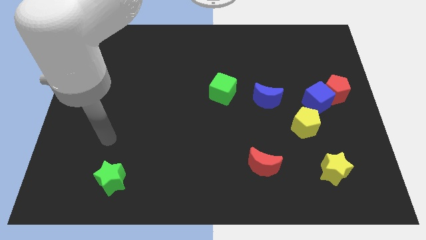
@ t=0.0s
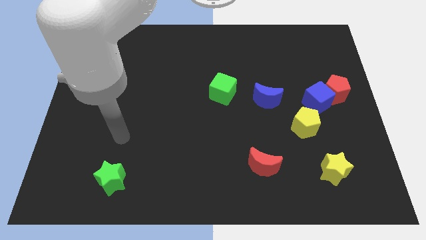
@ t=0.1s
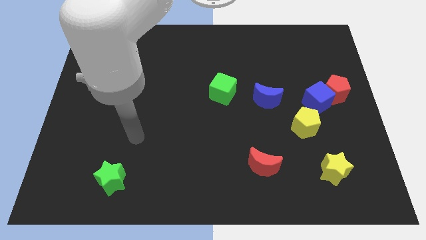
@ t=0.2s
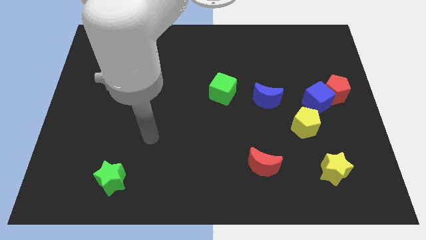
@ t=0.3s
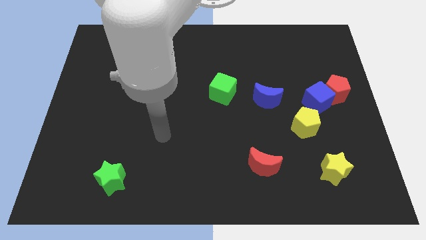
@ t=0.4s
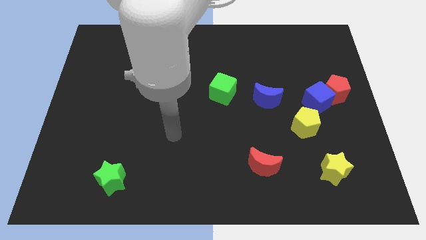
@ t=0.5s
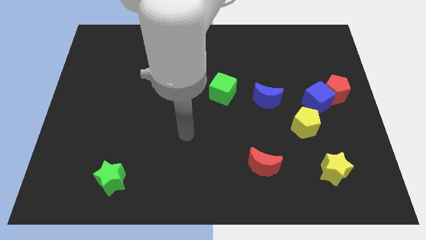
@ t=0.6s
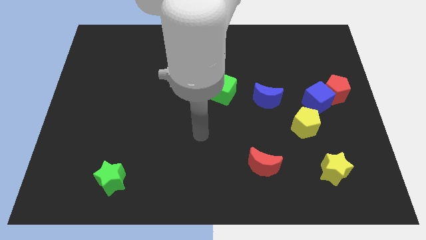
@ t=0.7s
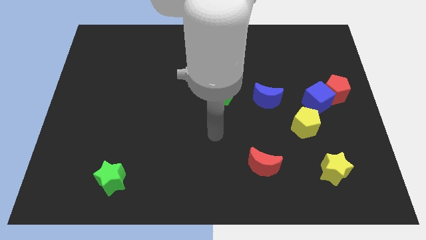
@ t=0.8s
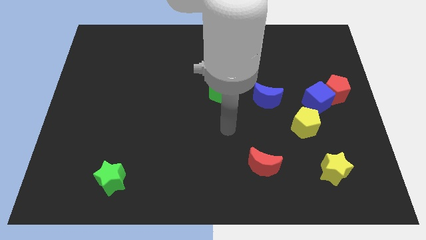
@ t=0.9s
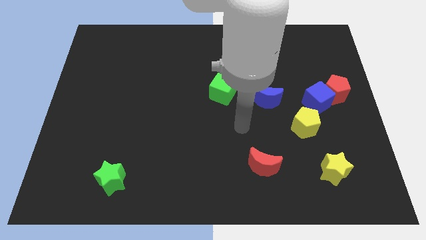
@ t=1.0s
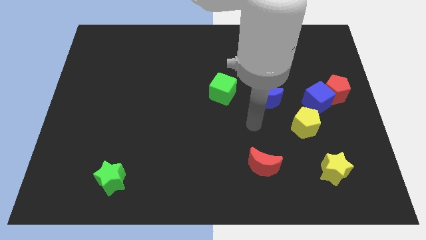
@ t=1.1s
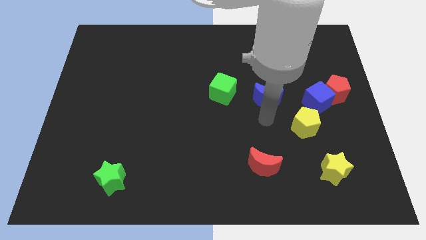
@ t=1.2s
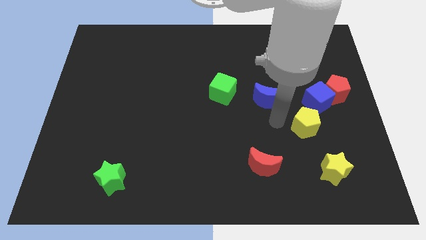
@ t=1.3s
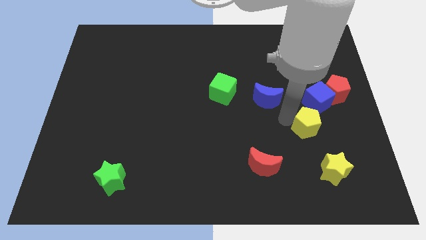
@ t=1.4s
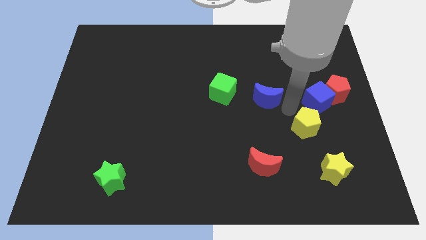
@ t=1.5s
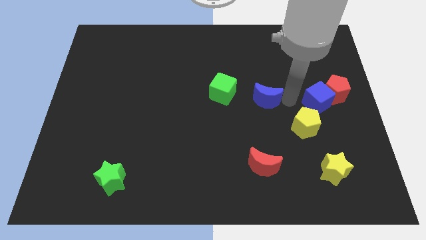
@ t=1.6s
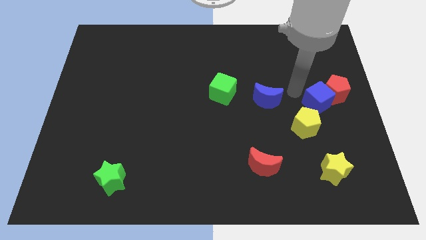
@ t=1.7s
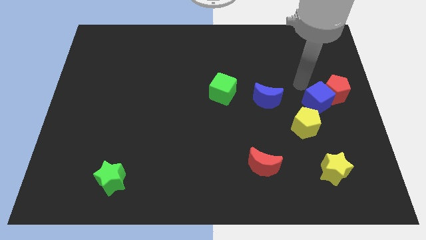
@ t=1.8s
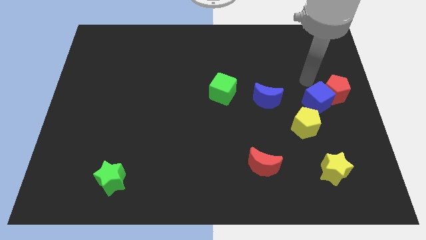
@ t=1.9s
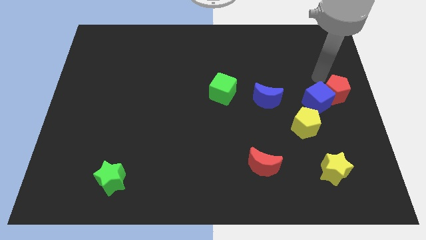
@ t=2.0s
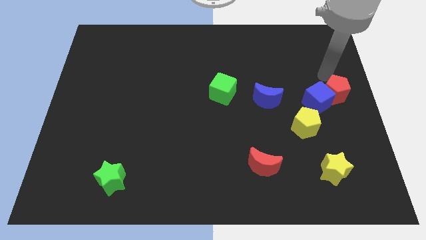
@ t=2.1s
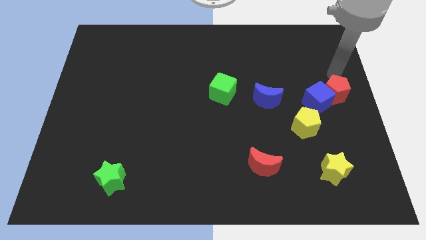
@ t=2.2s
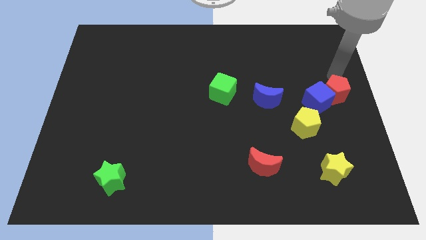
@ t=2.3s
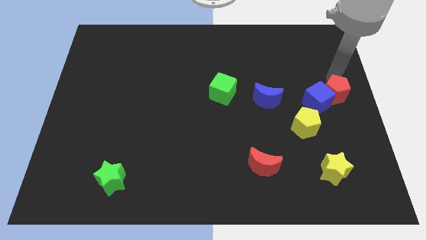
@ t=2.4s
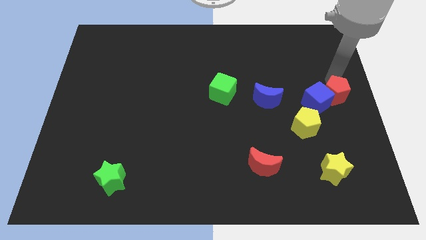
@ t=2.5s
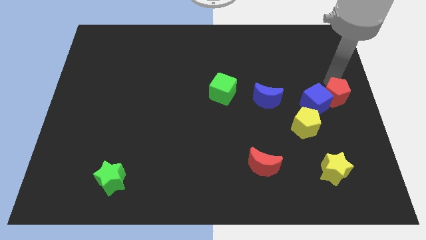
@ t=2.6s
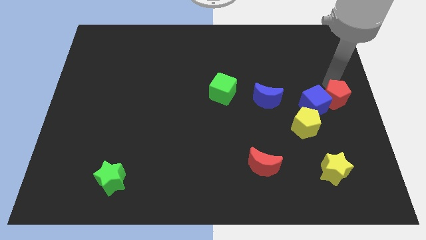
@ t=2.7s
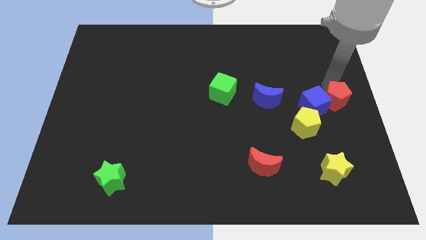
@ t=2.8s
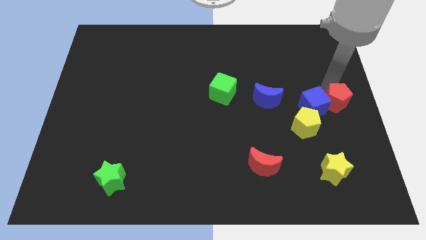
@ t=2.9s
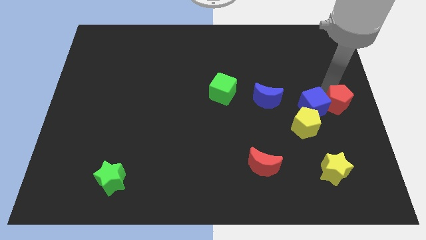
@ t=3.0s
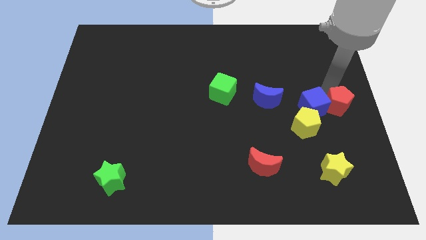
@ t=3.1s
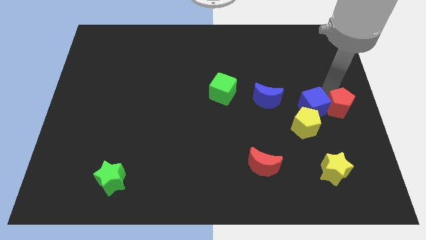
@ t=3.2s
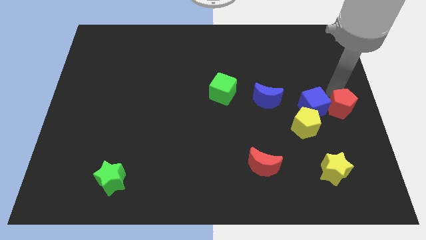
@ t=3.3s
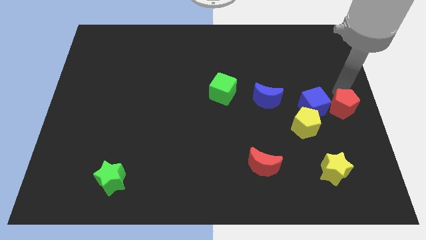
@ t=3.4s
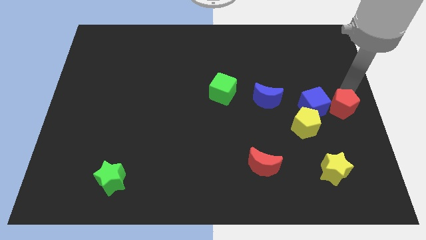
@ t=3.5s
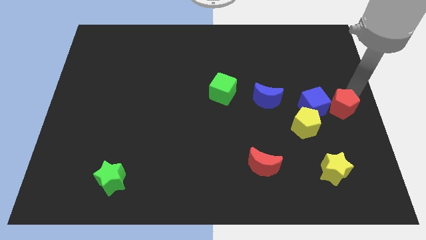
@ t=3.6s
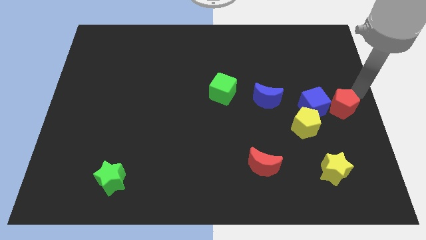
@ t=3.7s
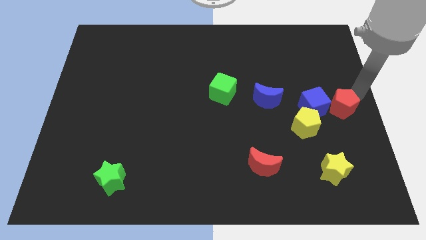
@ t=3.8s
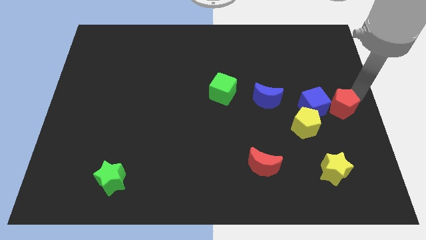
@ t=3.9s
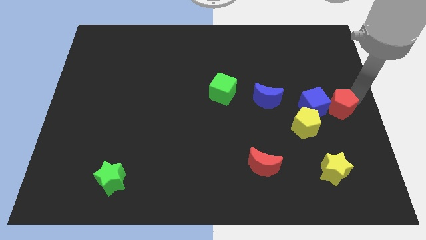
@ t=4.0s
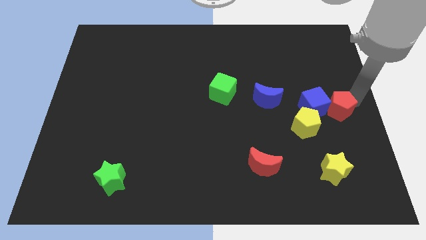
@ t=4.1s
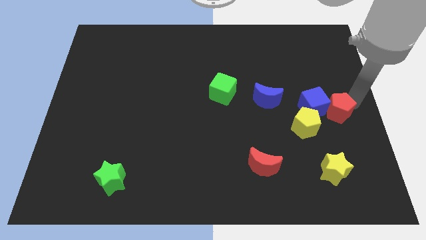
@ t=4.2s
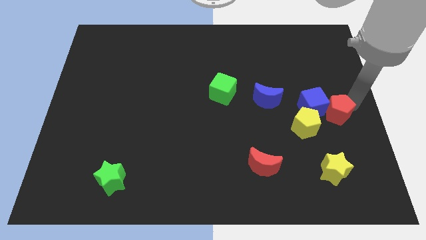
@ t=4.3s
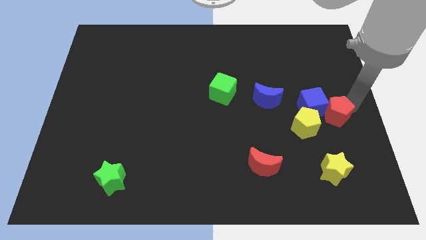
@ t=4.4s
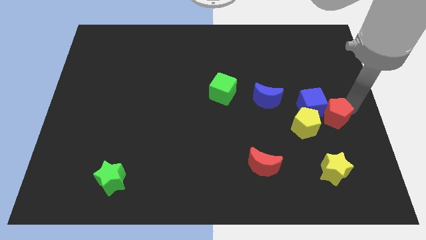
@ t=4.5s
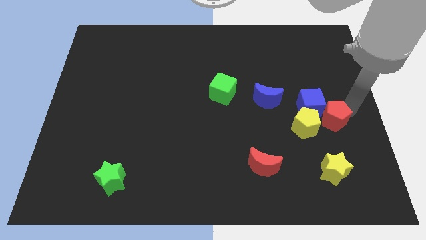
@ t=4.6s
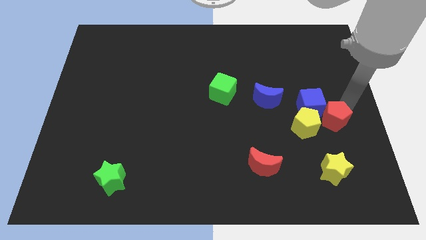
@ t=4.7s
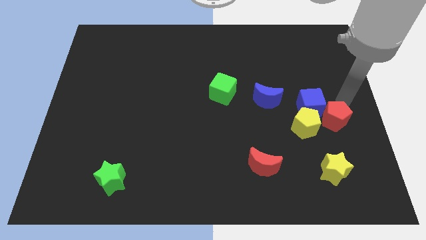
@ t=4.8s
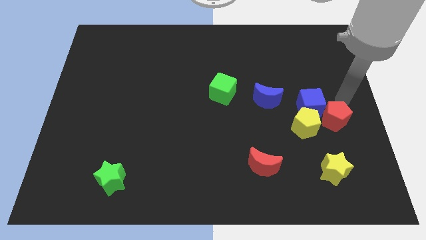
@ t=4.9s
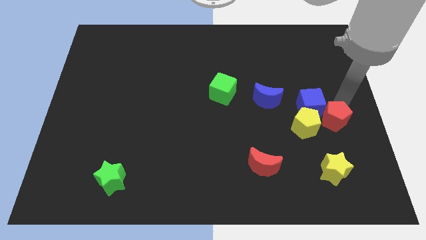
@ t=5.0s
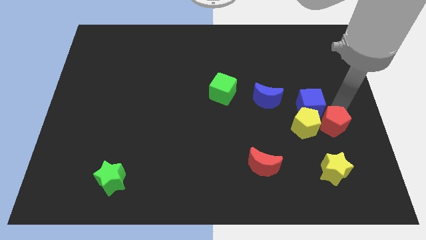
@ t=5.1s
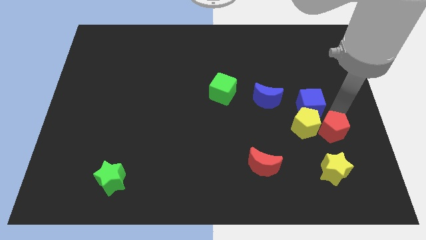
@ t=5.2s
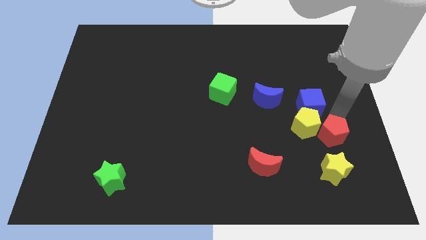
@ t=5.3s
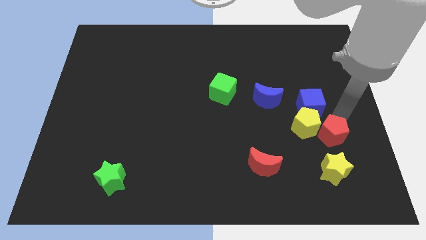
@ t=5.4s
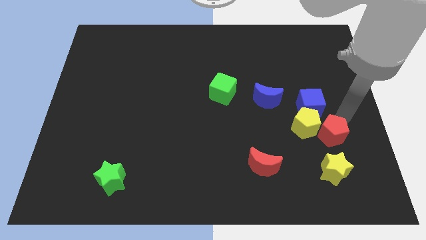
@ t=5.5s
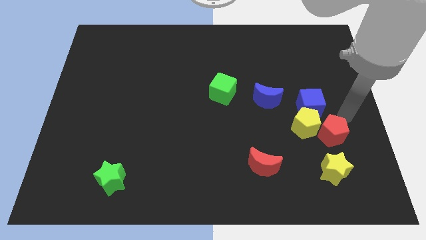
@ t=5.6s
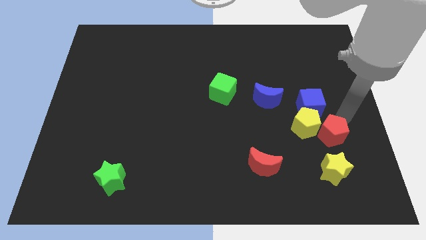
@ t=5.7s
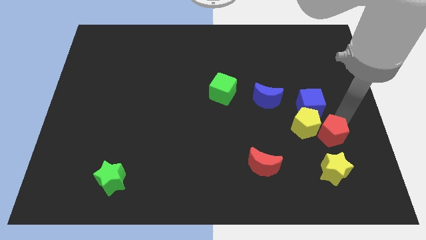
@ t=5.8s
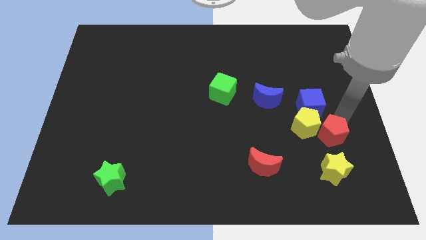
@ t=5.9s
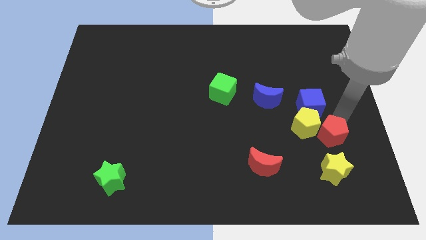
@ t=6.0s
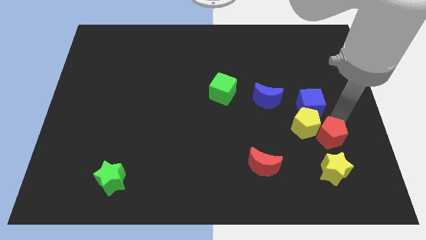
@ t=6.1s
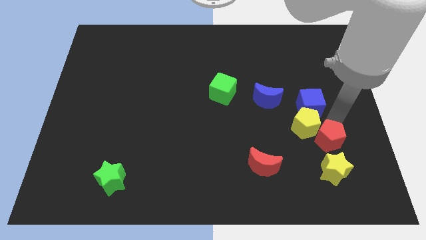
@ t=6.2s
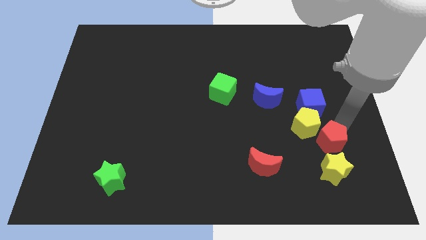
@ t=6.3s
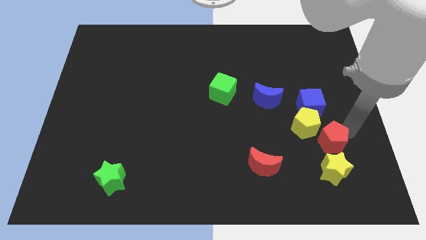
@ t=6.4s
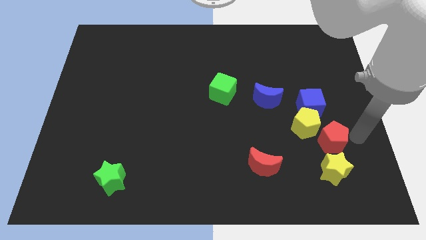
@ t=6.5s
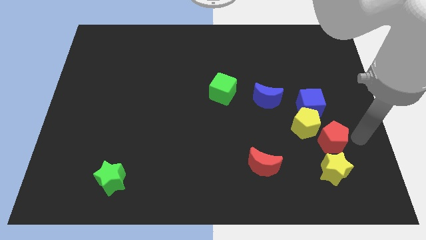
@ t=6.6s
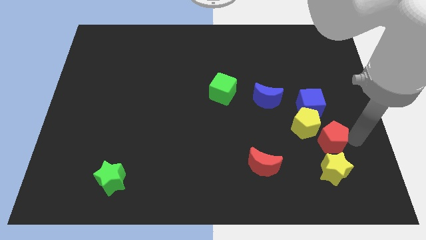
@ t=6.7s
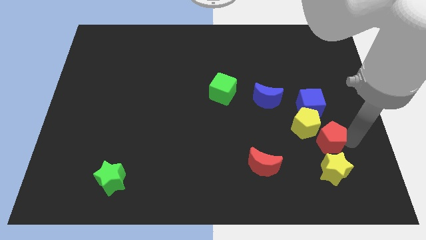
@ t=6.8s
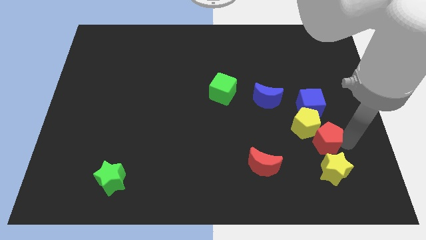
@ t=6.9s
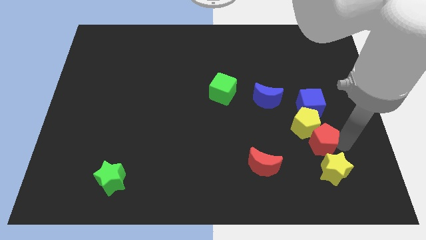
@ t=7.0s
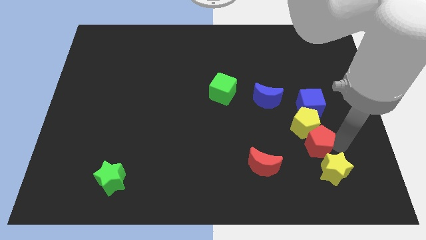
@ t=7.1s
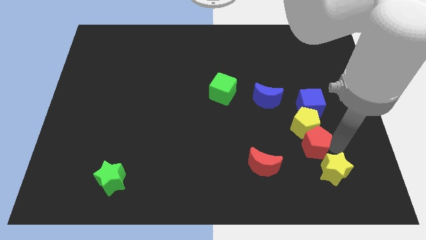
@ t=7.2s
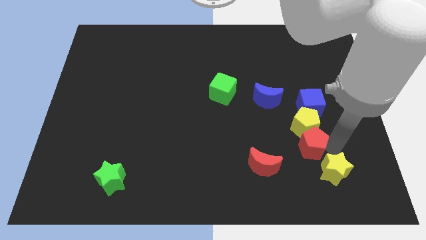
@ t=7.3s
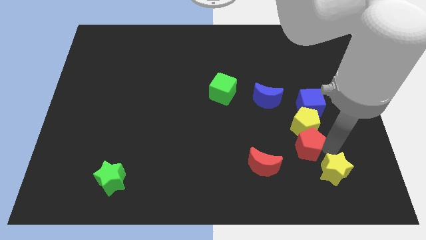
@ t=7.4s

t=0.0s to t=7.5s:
push the red pentagon to the top right of the red moon

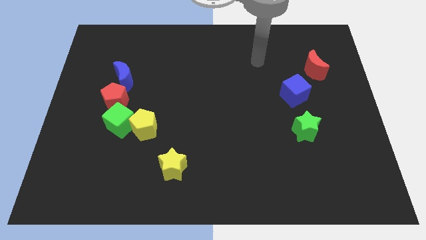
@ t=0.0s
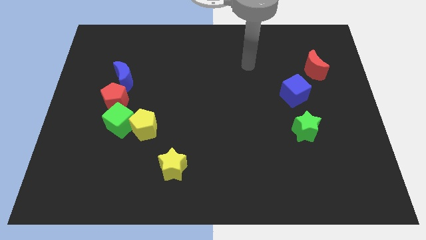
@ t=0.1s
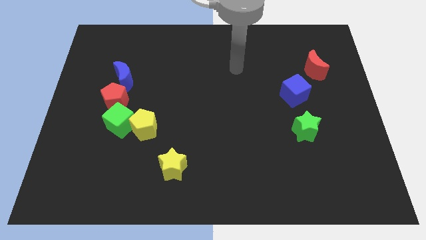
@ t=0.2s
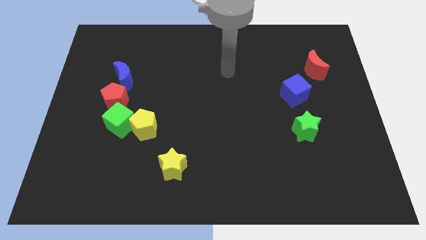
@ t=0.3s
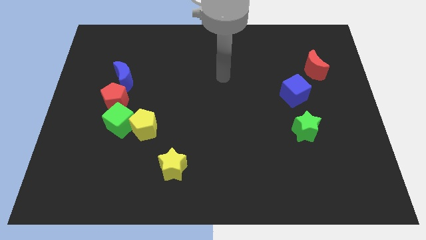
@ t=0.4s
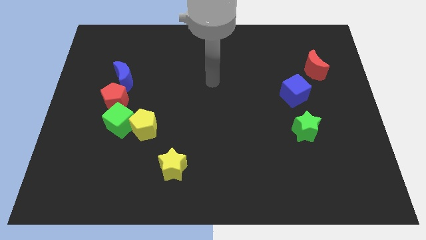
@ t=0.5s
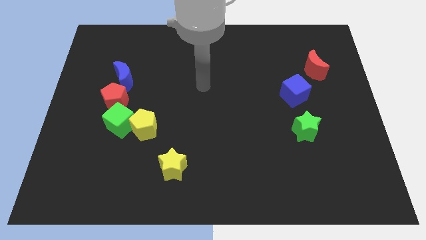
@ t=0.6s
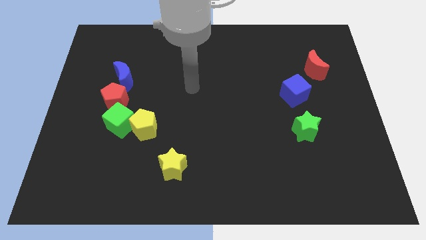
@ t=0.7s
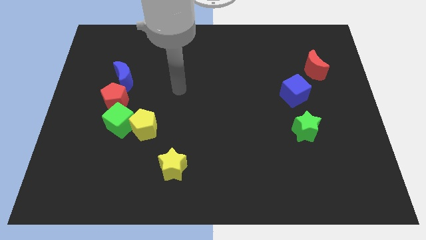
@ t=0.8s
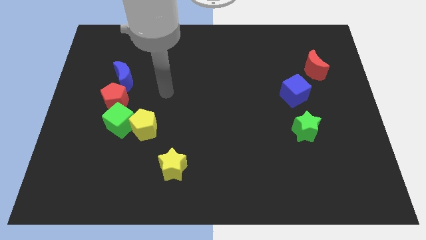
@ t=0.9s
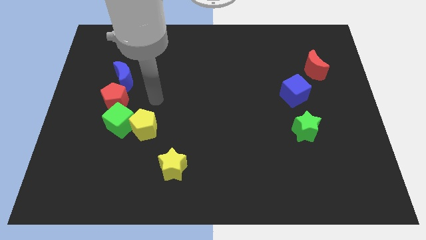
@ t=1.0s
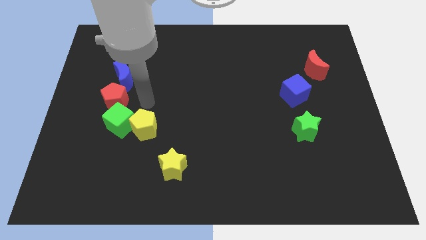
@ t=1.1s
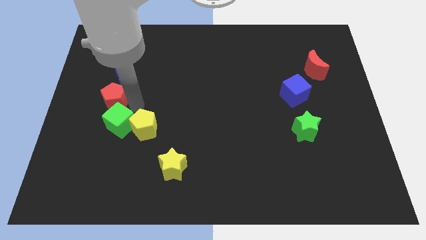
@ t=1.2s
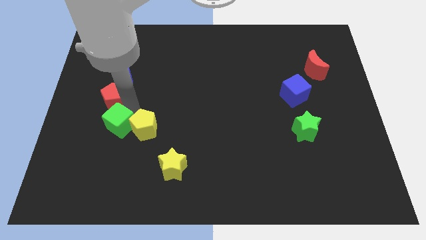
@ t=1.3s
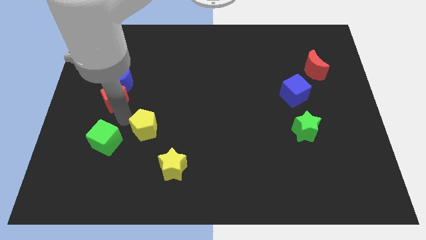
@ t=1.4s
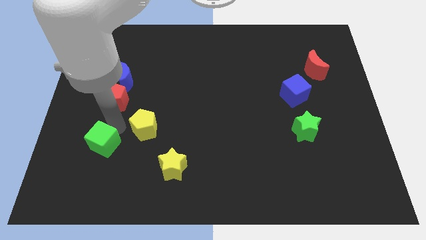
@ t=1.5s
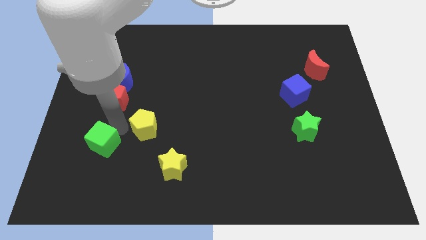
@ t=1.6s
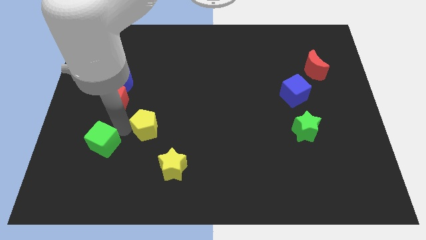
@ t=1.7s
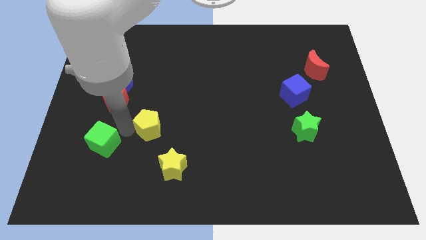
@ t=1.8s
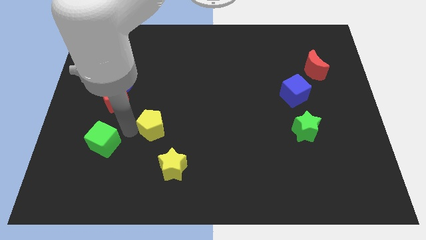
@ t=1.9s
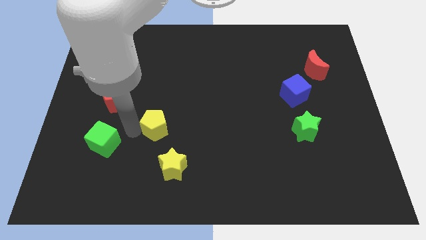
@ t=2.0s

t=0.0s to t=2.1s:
slide the yellow pentagon to the top of the yellow star
